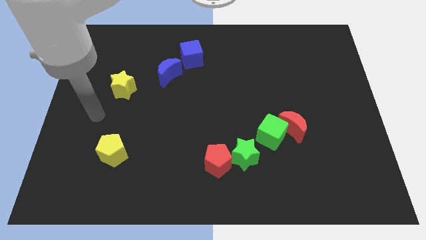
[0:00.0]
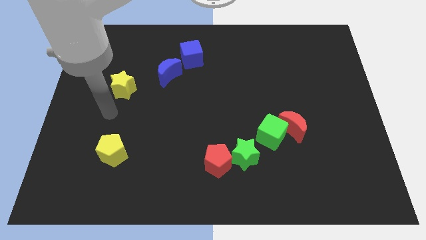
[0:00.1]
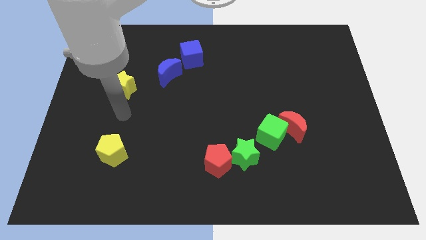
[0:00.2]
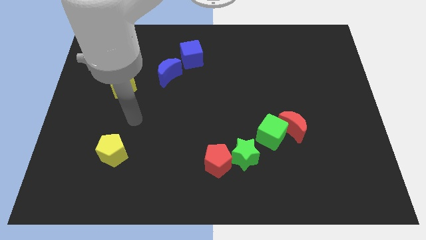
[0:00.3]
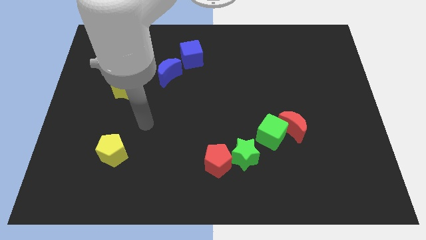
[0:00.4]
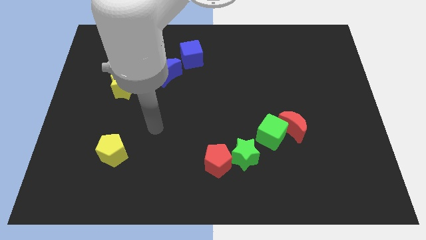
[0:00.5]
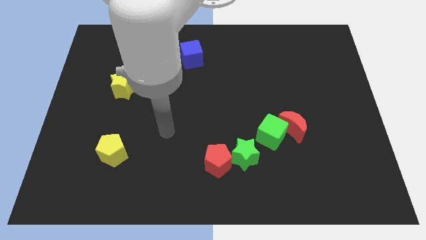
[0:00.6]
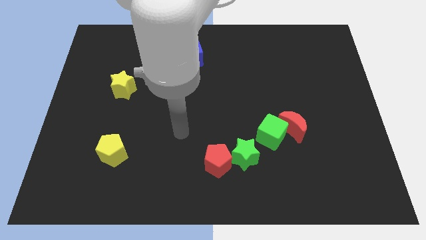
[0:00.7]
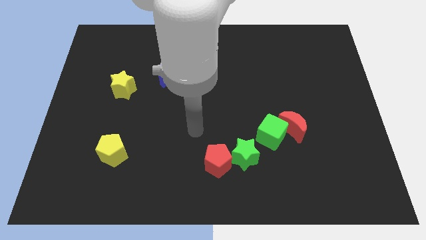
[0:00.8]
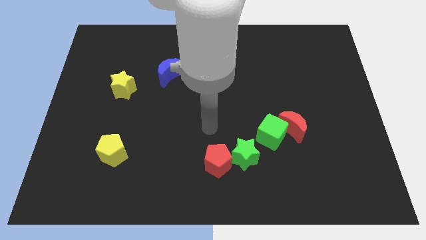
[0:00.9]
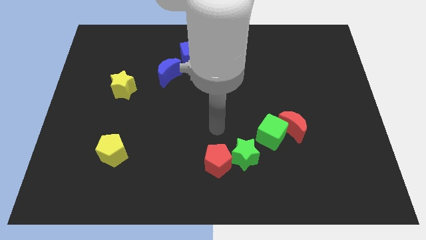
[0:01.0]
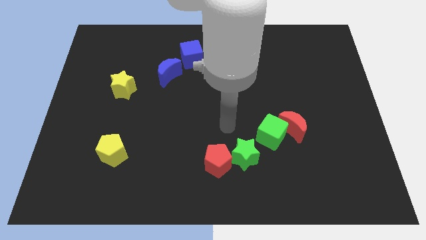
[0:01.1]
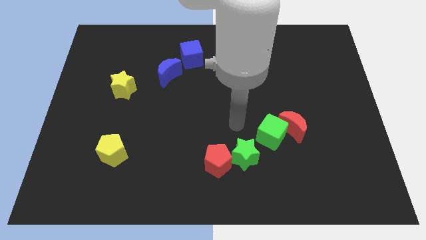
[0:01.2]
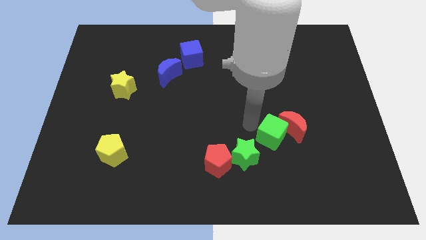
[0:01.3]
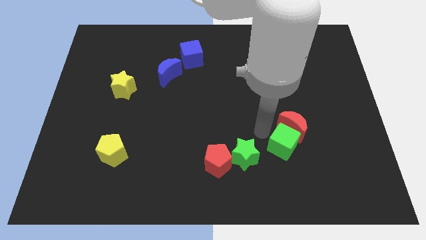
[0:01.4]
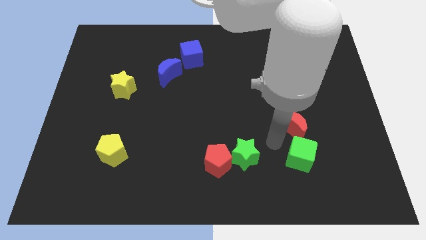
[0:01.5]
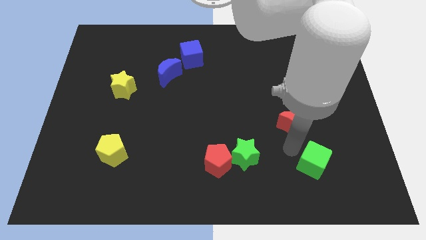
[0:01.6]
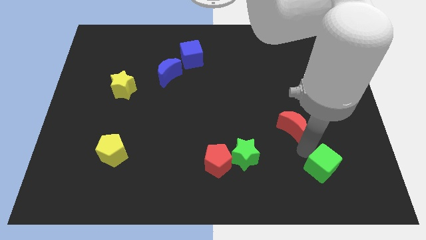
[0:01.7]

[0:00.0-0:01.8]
pull the red moon apart from the green cube

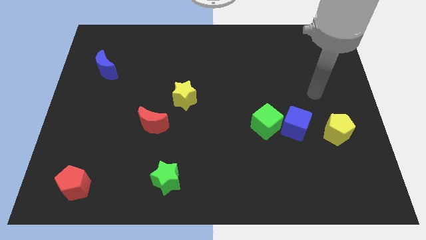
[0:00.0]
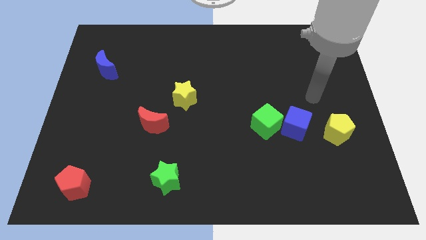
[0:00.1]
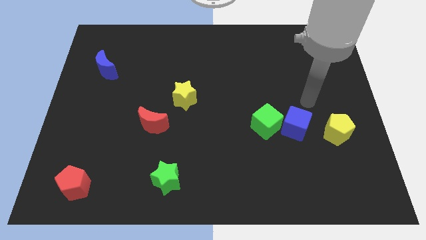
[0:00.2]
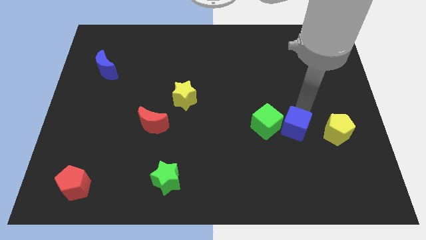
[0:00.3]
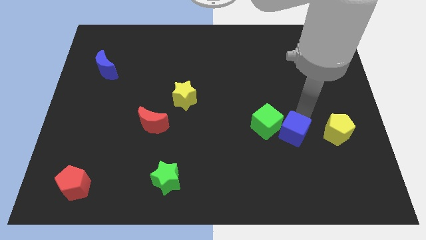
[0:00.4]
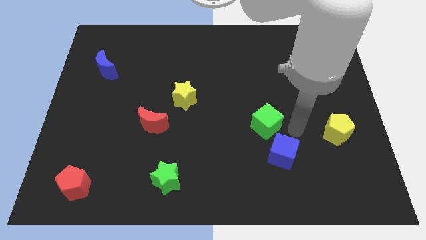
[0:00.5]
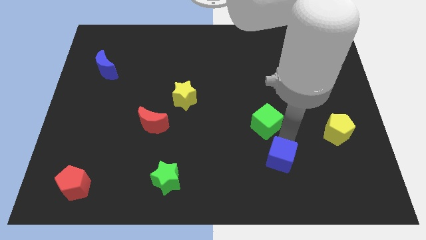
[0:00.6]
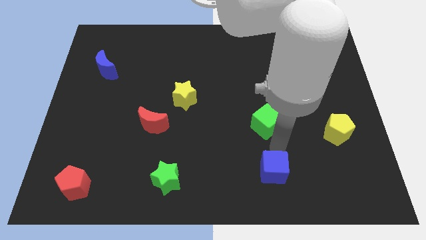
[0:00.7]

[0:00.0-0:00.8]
pull the green cube apart from the blue cube

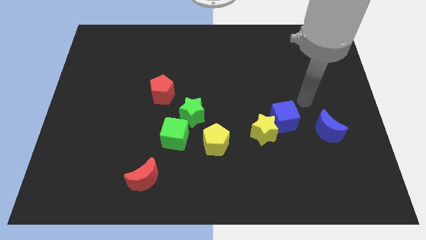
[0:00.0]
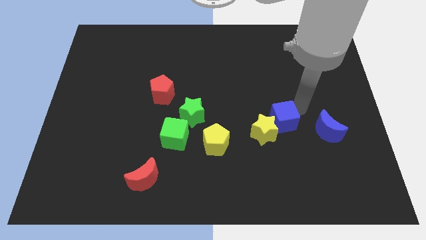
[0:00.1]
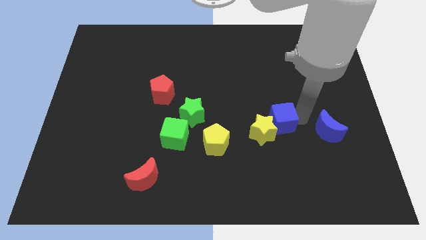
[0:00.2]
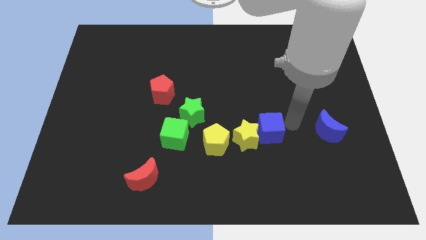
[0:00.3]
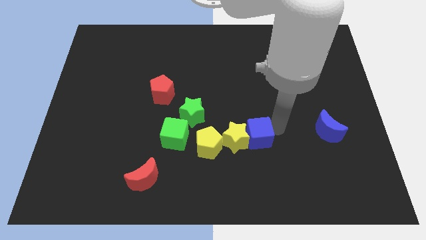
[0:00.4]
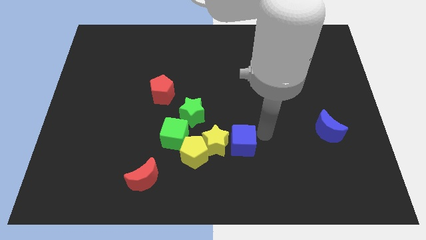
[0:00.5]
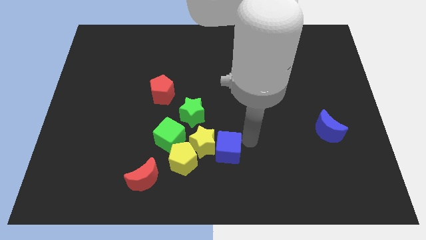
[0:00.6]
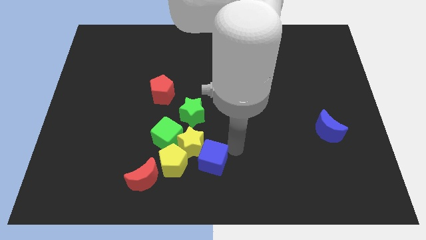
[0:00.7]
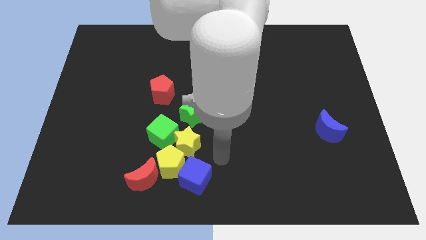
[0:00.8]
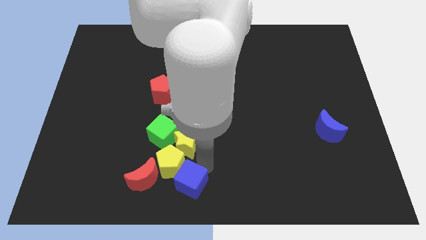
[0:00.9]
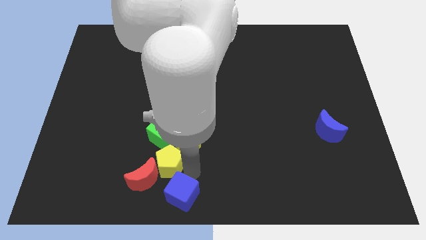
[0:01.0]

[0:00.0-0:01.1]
move the yellow star away from the blue cube

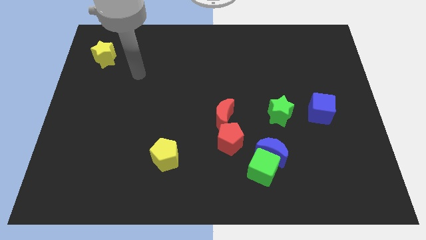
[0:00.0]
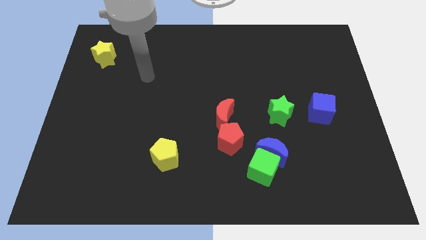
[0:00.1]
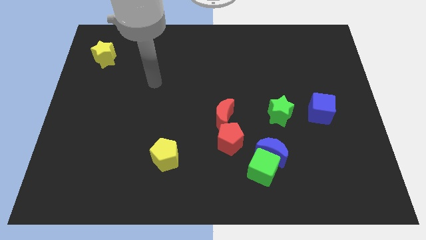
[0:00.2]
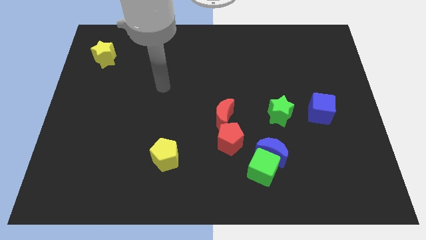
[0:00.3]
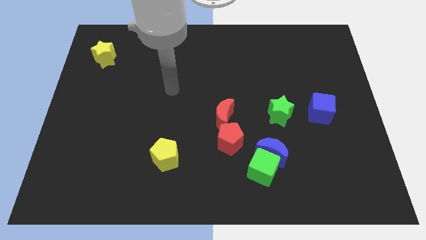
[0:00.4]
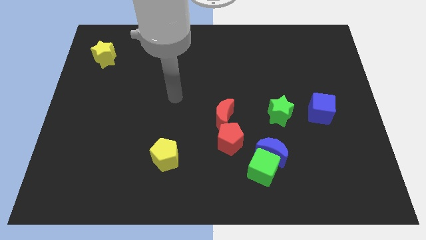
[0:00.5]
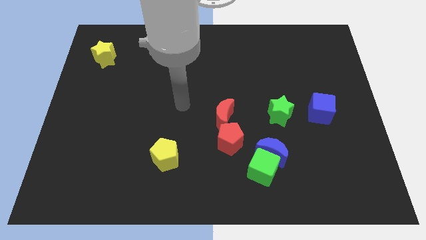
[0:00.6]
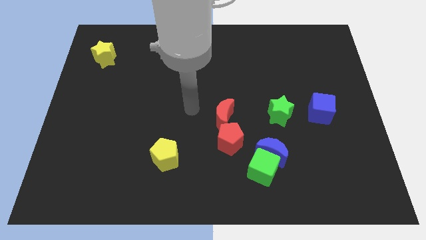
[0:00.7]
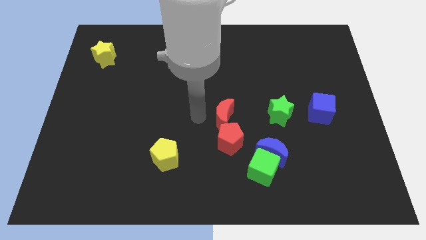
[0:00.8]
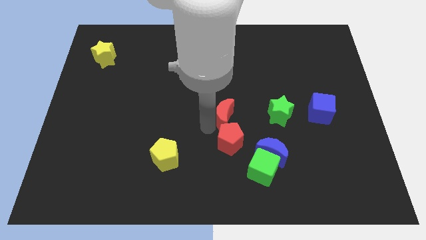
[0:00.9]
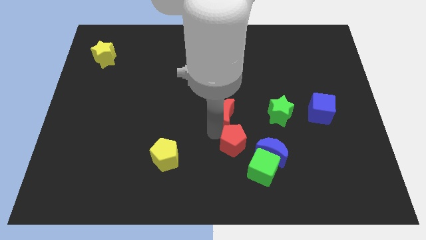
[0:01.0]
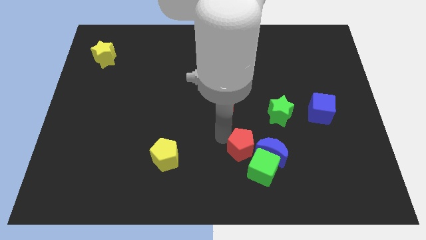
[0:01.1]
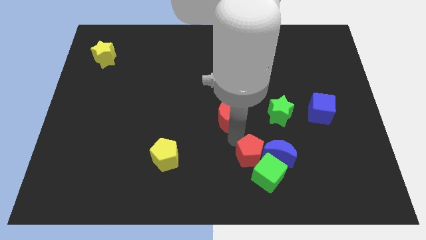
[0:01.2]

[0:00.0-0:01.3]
separate the red moon from the red pentagon

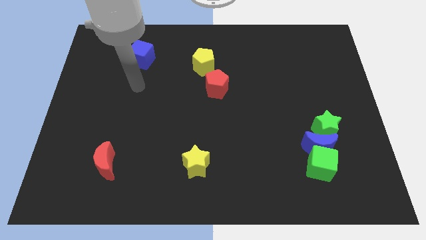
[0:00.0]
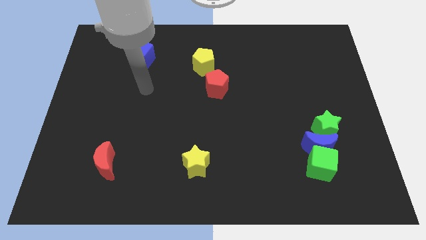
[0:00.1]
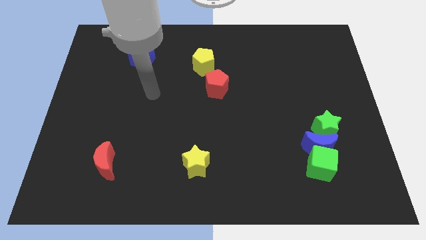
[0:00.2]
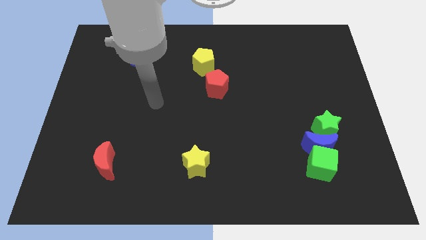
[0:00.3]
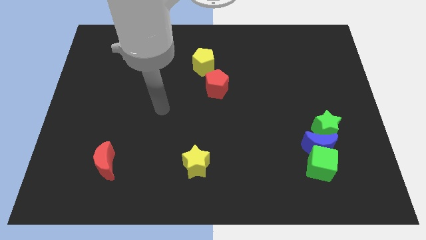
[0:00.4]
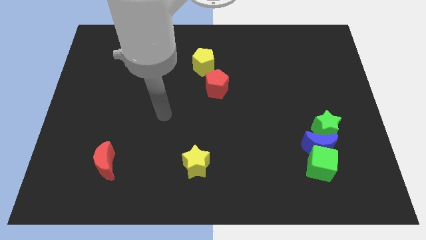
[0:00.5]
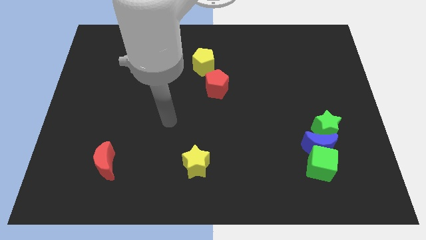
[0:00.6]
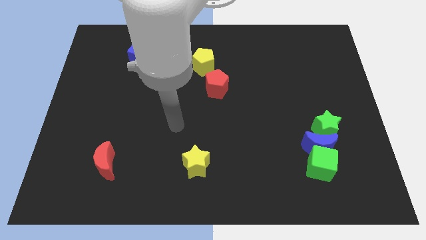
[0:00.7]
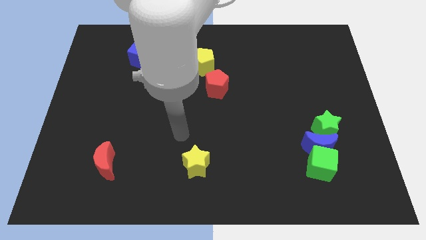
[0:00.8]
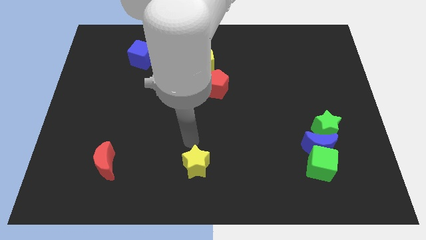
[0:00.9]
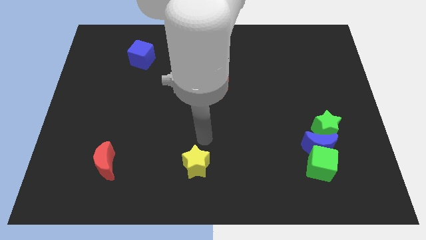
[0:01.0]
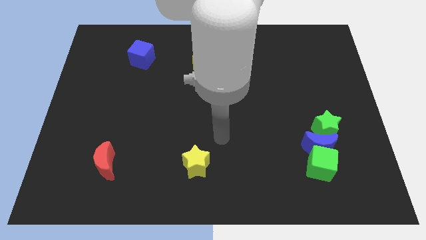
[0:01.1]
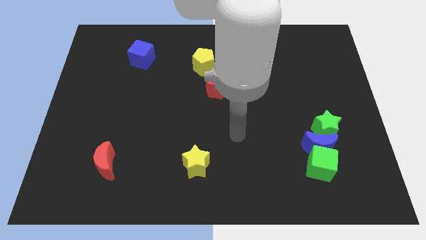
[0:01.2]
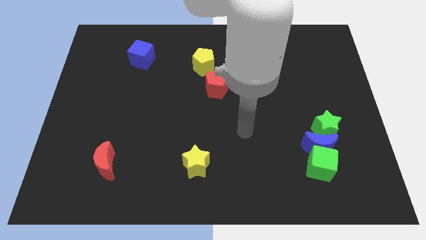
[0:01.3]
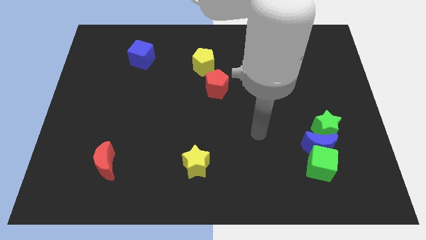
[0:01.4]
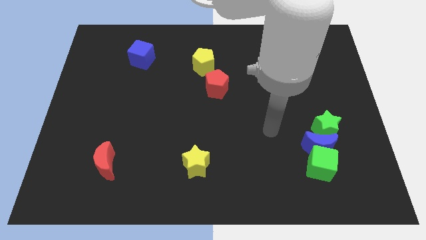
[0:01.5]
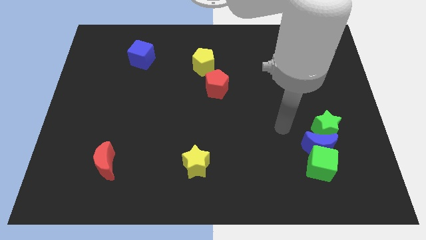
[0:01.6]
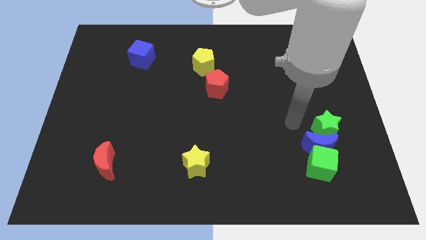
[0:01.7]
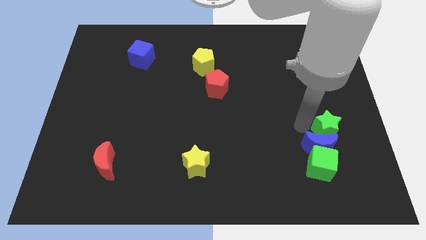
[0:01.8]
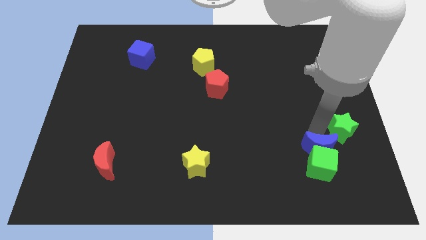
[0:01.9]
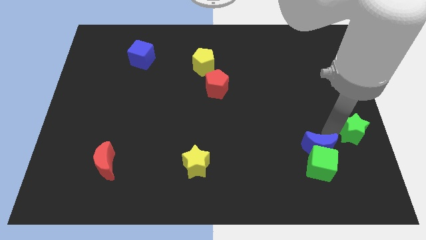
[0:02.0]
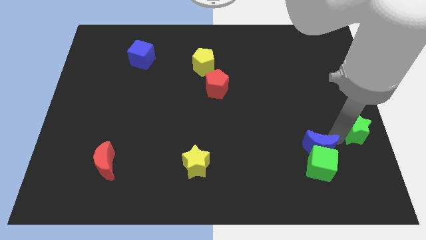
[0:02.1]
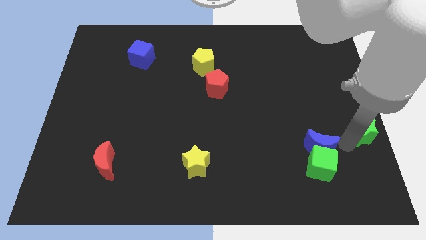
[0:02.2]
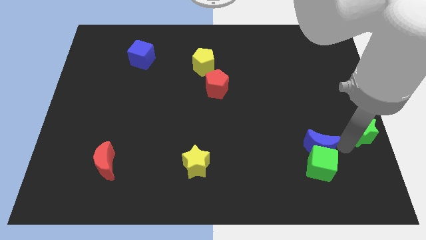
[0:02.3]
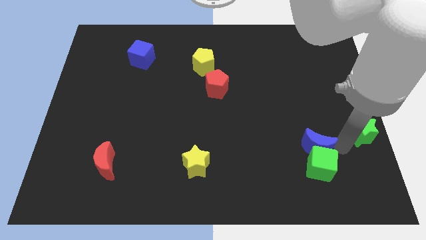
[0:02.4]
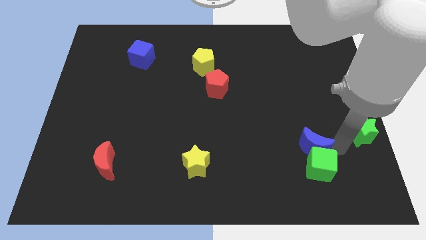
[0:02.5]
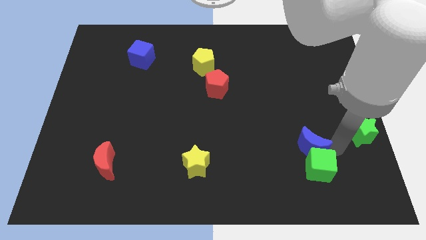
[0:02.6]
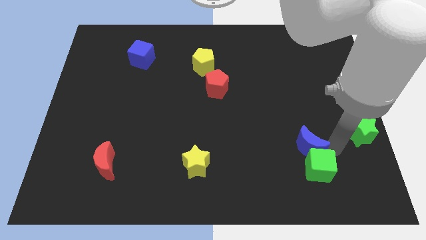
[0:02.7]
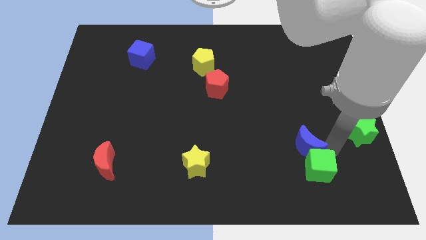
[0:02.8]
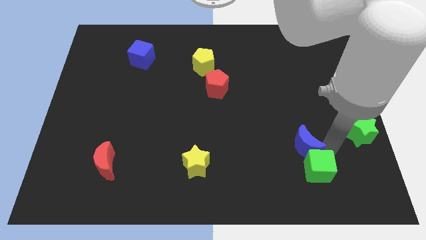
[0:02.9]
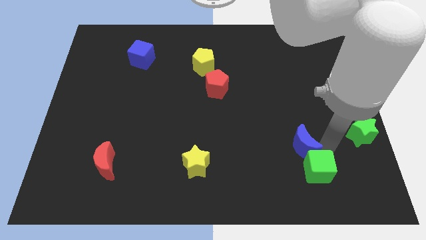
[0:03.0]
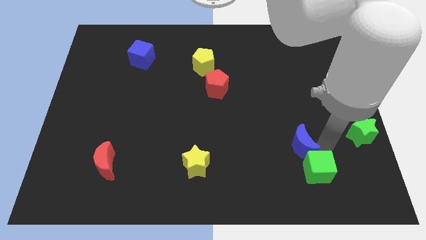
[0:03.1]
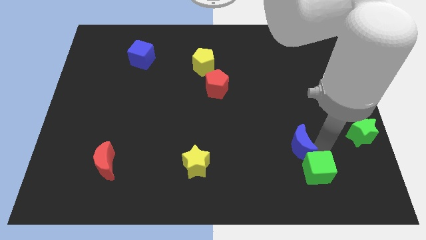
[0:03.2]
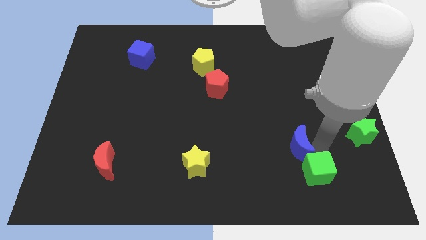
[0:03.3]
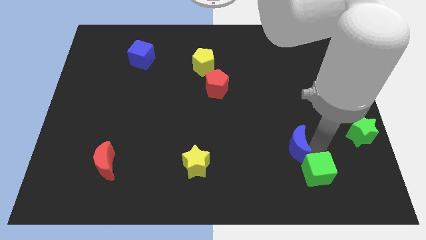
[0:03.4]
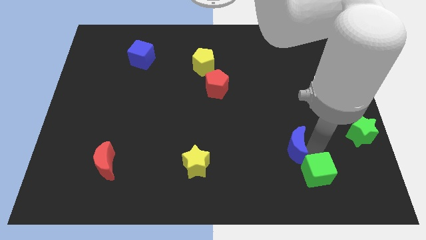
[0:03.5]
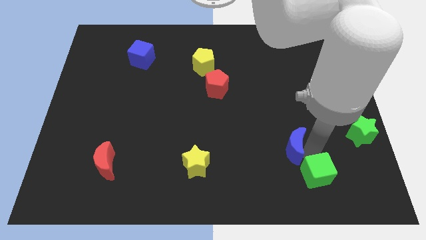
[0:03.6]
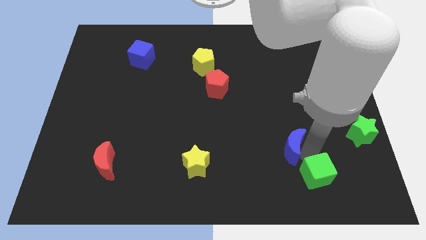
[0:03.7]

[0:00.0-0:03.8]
separate the blue moon from the green cube and green star

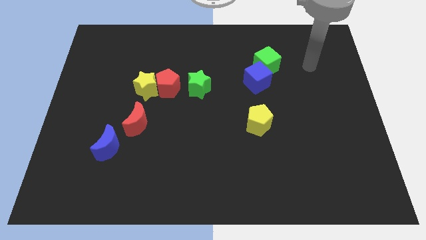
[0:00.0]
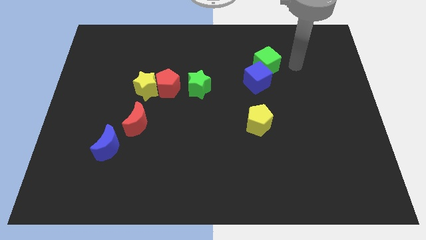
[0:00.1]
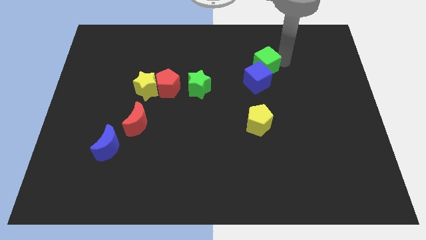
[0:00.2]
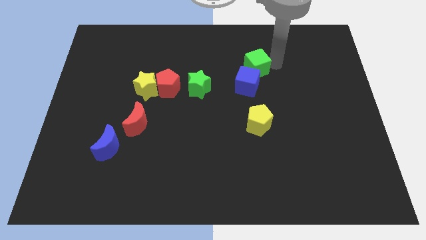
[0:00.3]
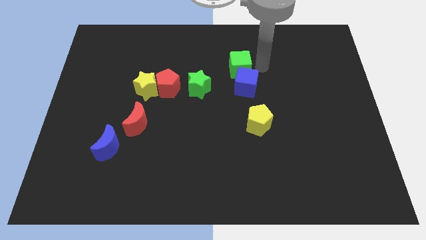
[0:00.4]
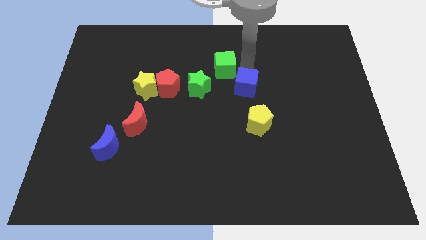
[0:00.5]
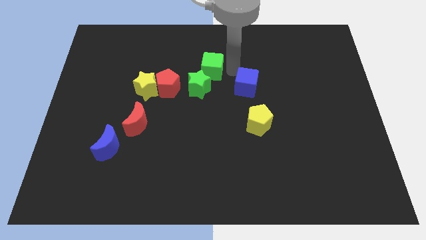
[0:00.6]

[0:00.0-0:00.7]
move the blue cube away from the green cube
